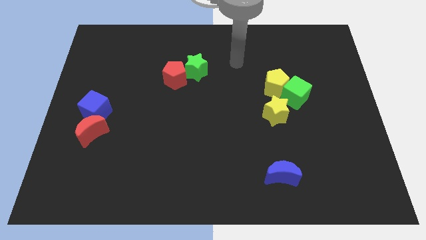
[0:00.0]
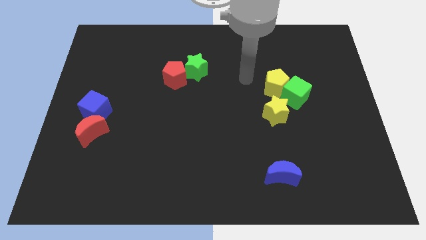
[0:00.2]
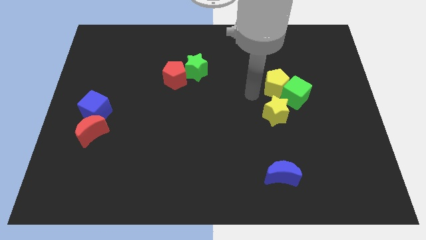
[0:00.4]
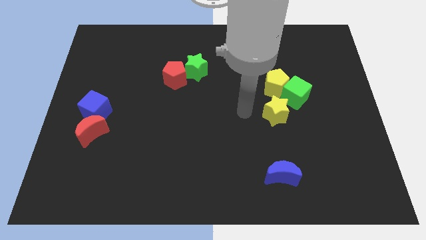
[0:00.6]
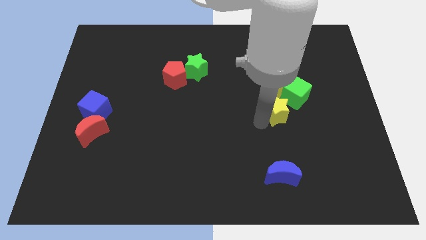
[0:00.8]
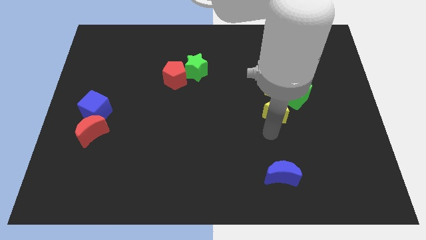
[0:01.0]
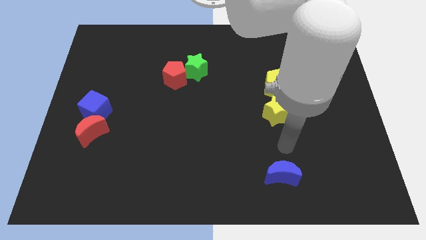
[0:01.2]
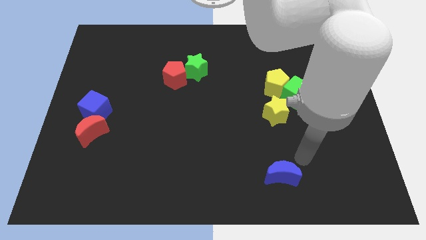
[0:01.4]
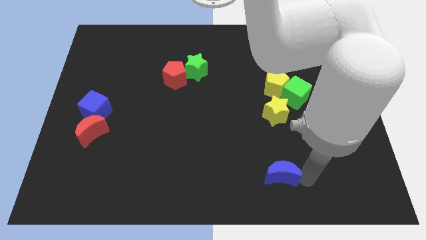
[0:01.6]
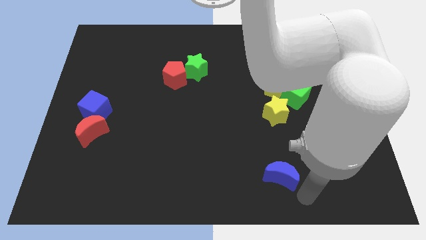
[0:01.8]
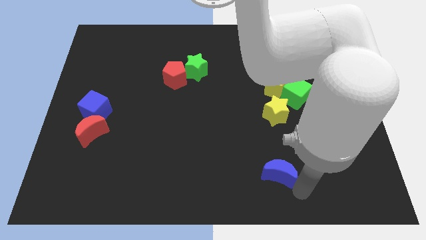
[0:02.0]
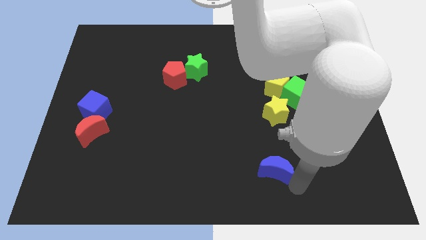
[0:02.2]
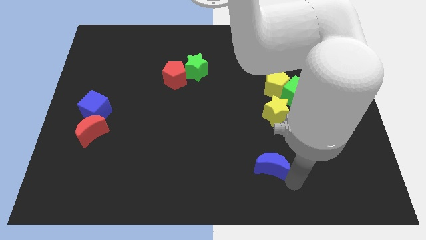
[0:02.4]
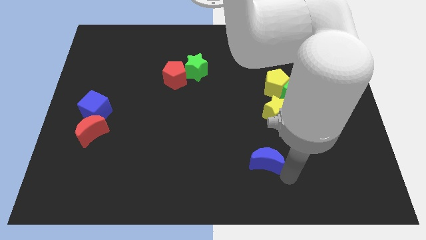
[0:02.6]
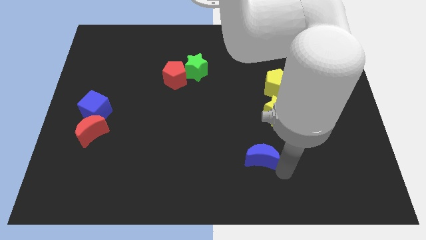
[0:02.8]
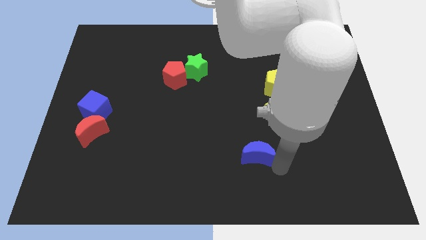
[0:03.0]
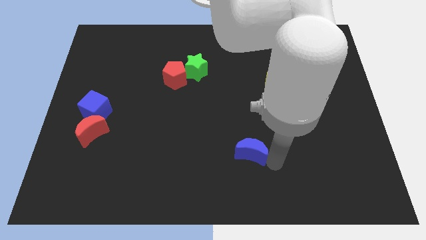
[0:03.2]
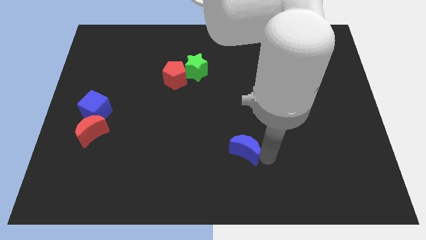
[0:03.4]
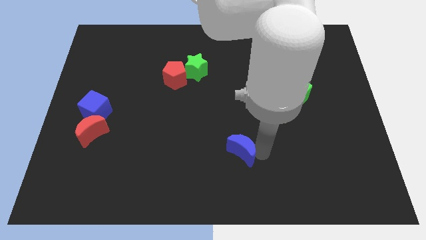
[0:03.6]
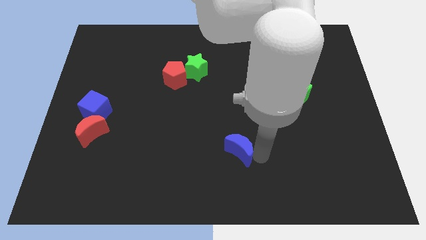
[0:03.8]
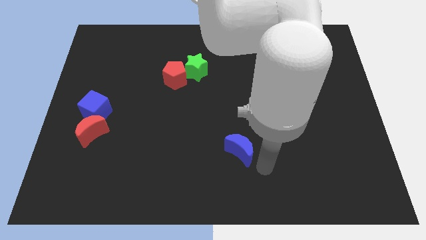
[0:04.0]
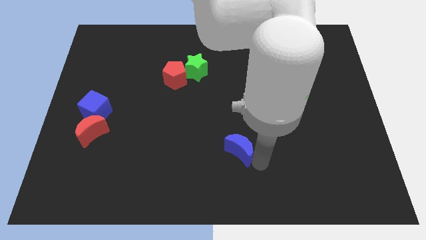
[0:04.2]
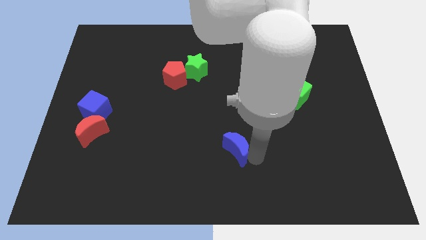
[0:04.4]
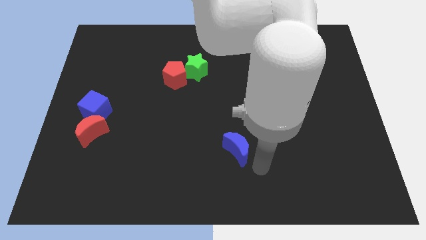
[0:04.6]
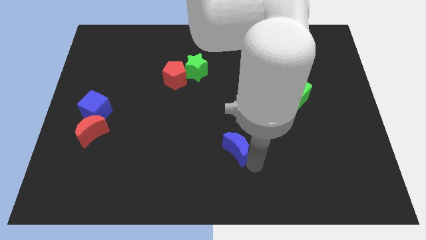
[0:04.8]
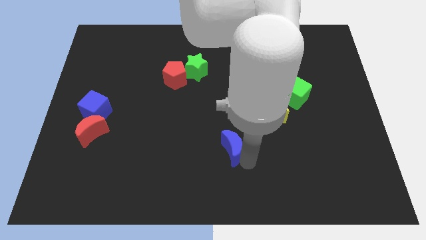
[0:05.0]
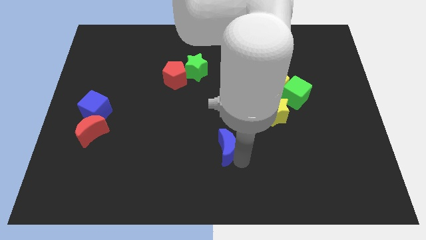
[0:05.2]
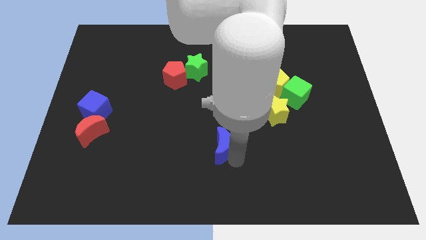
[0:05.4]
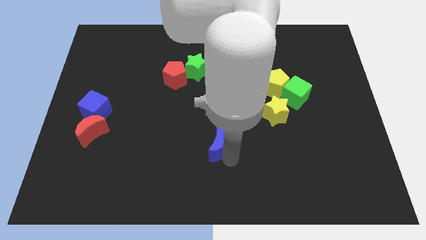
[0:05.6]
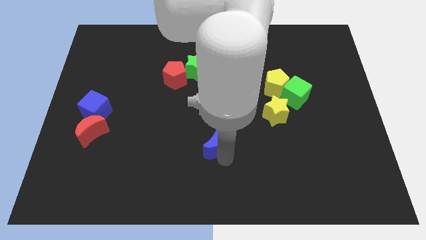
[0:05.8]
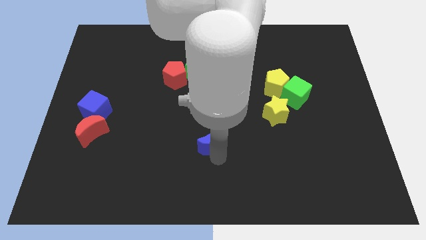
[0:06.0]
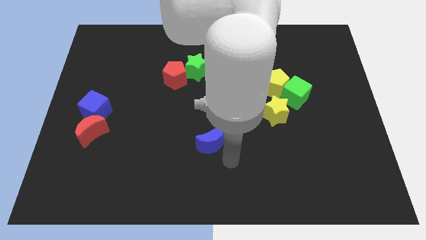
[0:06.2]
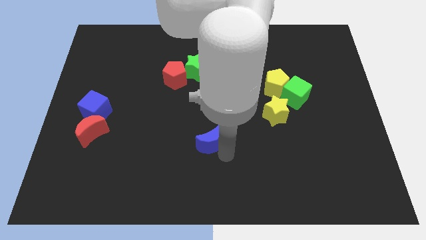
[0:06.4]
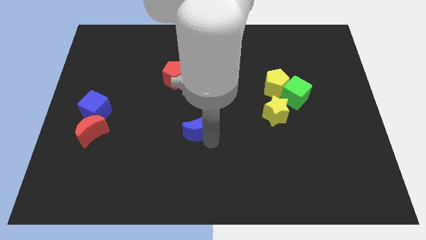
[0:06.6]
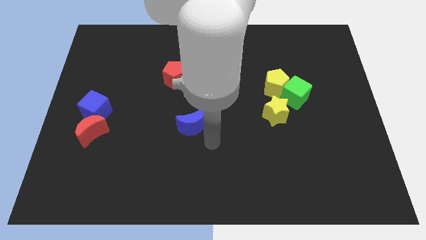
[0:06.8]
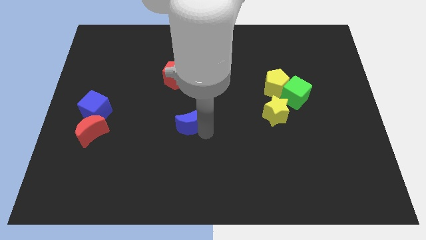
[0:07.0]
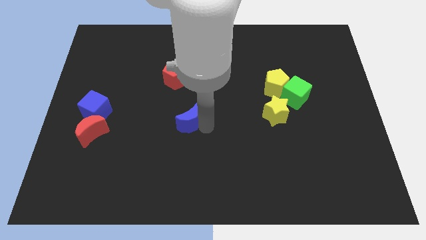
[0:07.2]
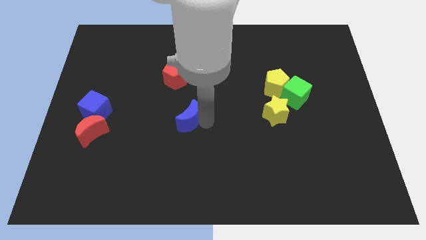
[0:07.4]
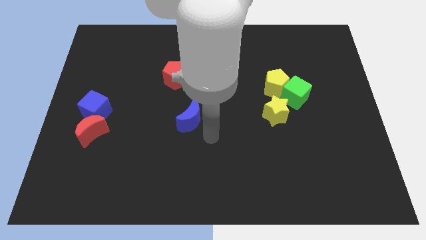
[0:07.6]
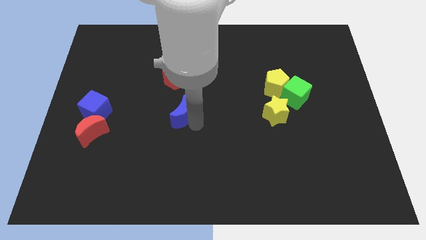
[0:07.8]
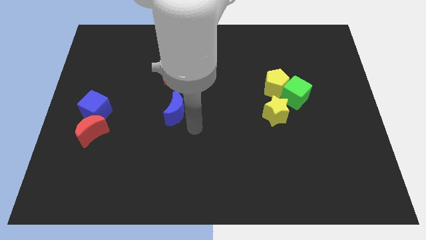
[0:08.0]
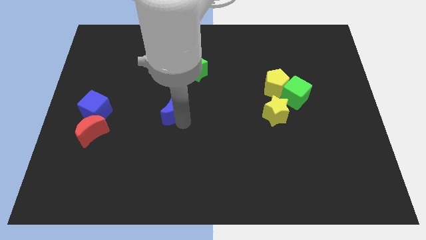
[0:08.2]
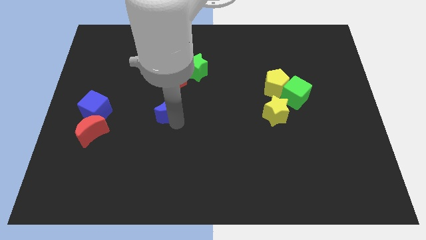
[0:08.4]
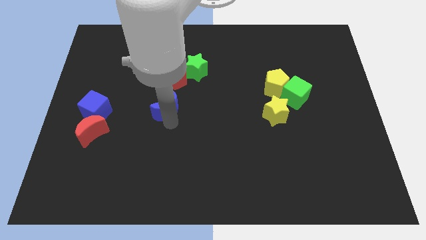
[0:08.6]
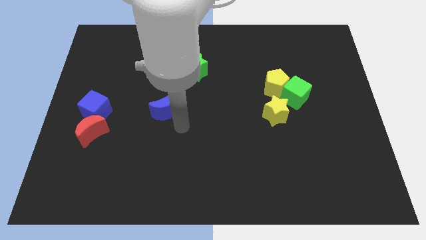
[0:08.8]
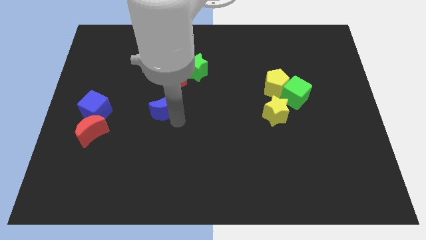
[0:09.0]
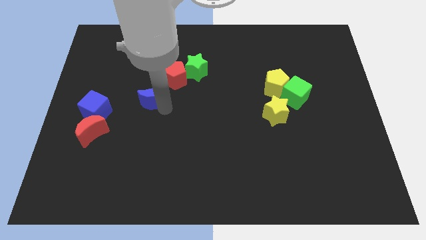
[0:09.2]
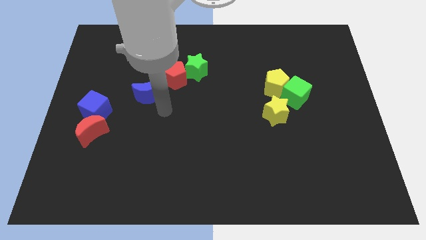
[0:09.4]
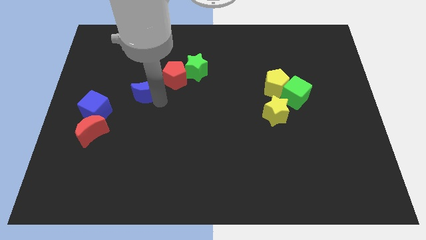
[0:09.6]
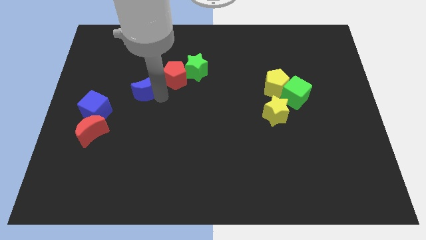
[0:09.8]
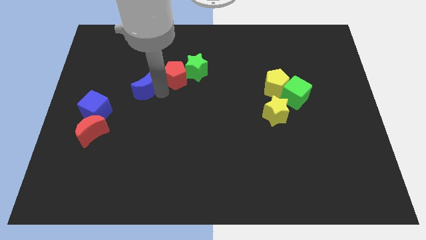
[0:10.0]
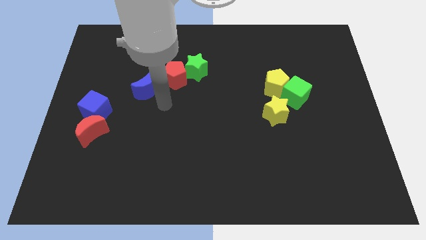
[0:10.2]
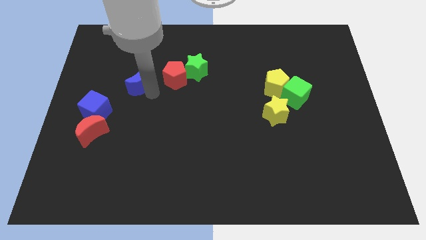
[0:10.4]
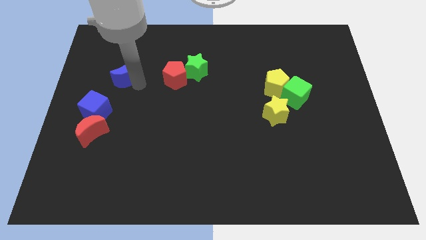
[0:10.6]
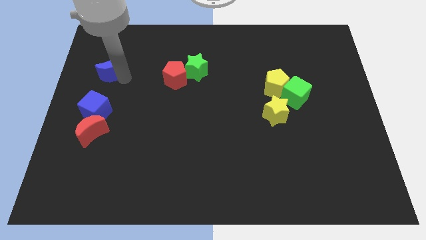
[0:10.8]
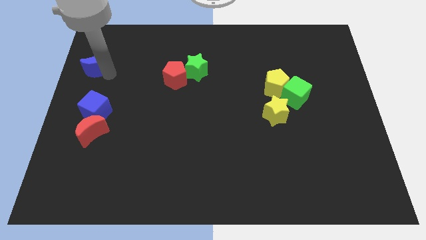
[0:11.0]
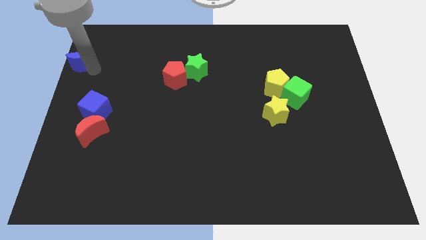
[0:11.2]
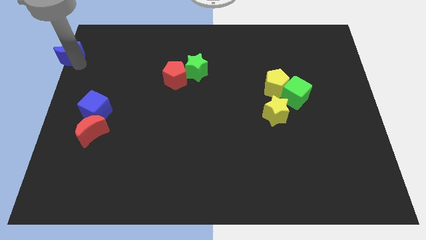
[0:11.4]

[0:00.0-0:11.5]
put the blue moon to the upper left corner

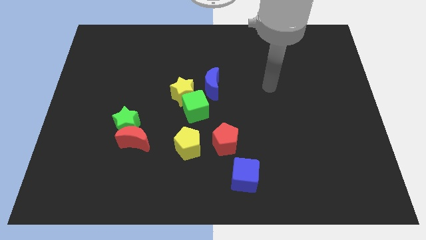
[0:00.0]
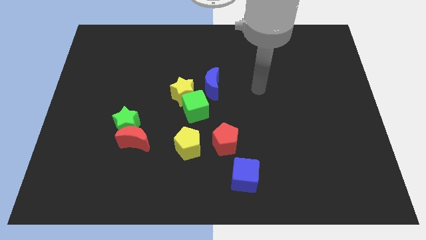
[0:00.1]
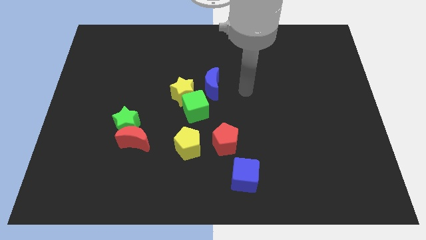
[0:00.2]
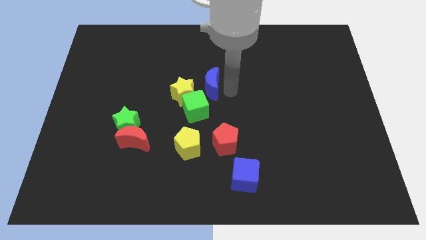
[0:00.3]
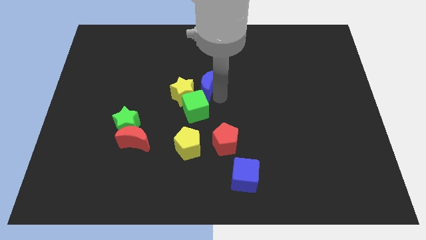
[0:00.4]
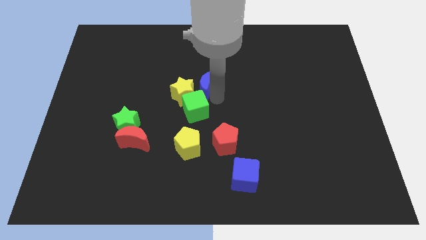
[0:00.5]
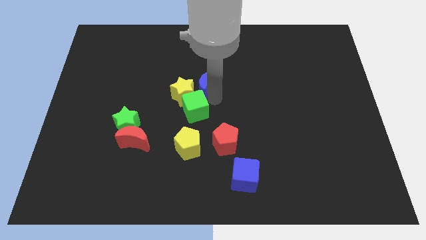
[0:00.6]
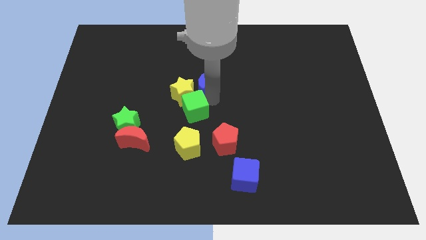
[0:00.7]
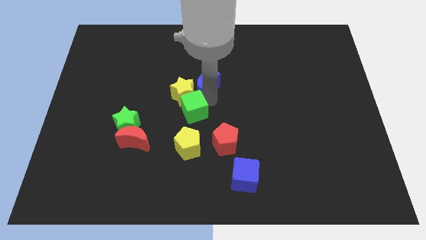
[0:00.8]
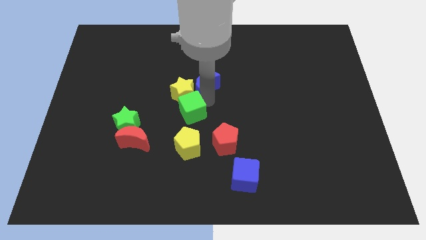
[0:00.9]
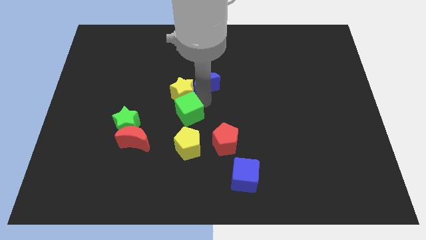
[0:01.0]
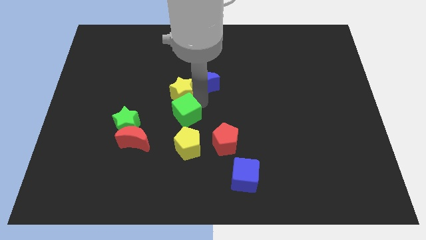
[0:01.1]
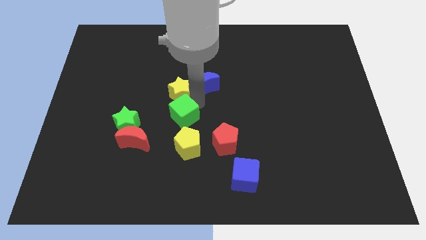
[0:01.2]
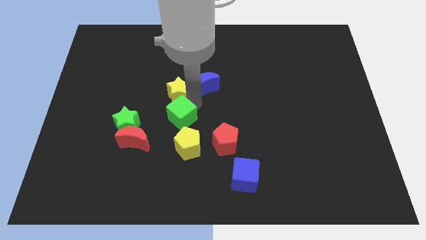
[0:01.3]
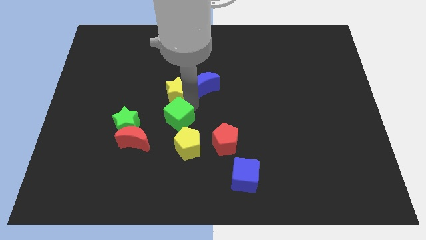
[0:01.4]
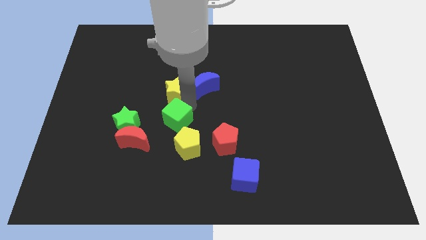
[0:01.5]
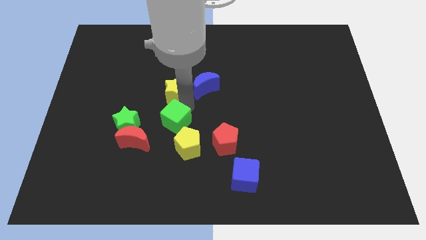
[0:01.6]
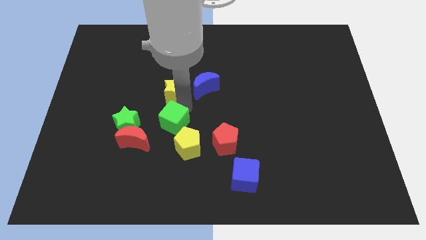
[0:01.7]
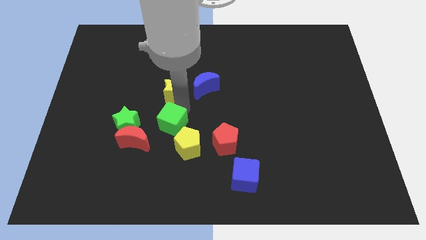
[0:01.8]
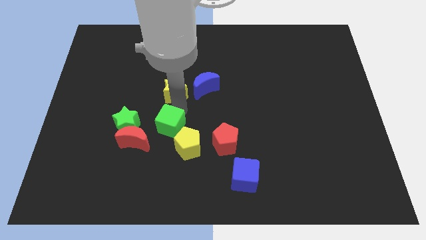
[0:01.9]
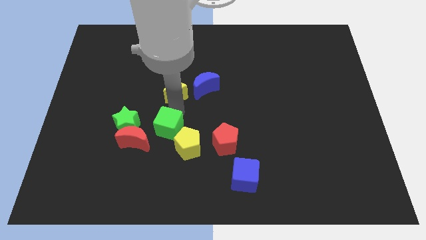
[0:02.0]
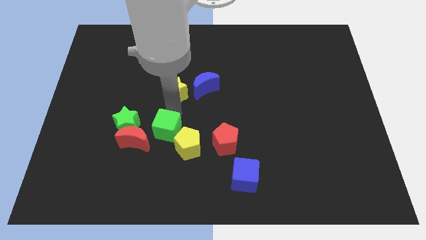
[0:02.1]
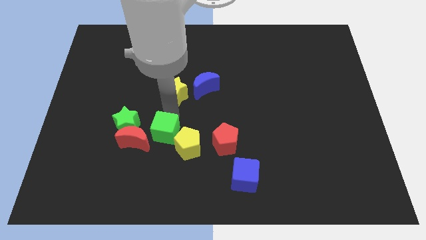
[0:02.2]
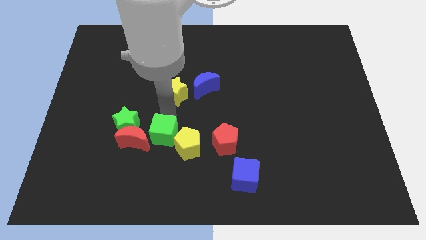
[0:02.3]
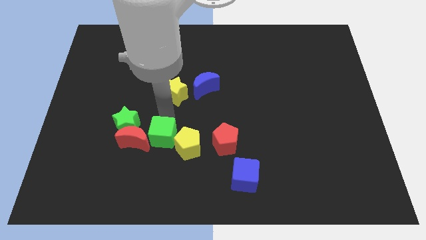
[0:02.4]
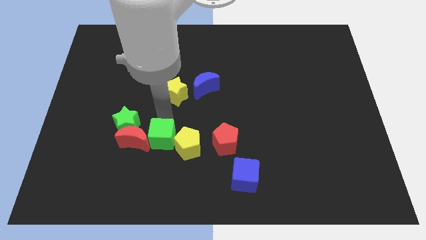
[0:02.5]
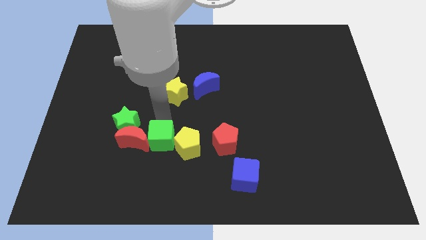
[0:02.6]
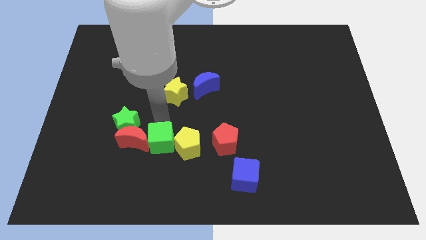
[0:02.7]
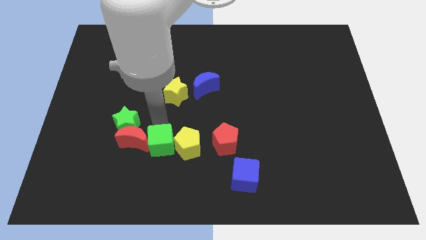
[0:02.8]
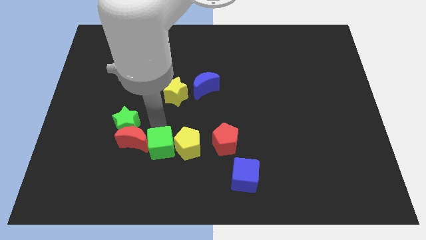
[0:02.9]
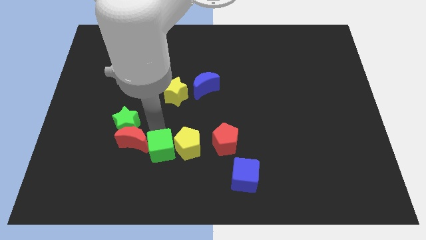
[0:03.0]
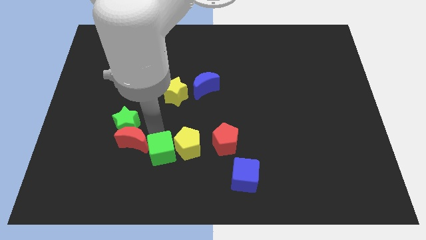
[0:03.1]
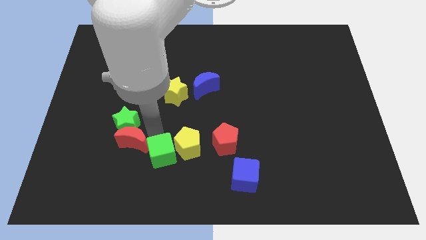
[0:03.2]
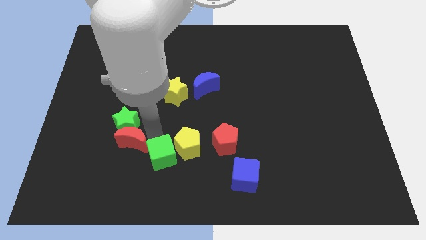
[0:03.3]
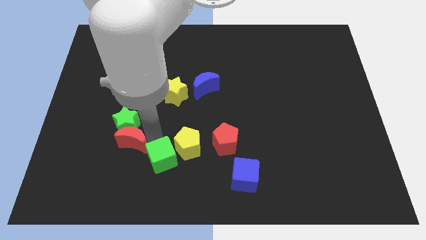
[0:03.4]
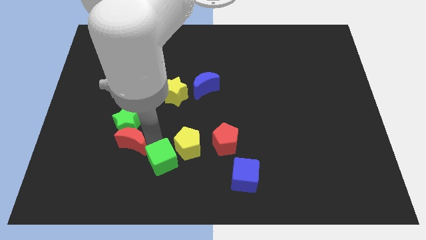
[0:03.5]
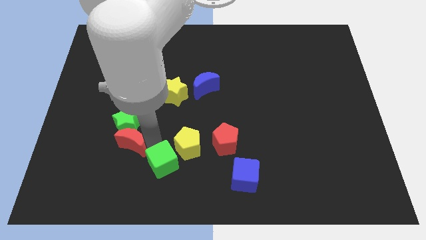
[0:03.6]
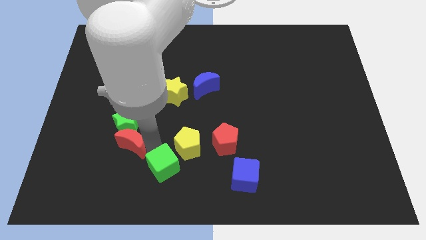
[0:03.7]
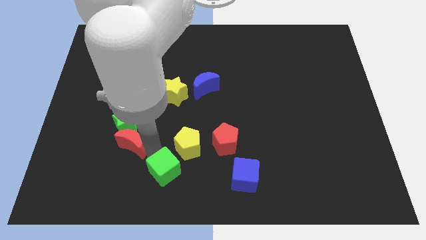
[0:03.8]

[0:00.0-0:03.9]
move the green cube to the bottom
